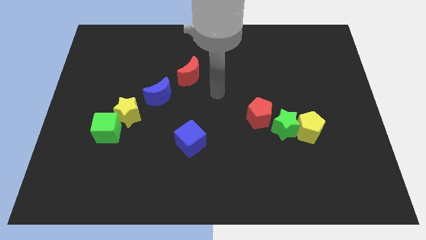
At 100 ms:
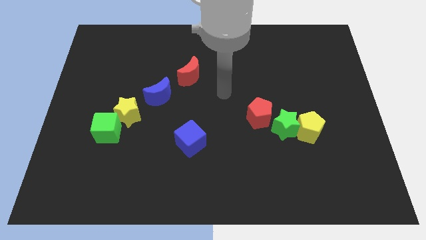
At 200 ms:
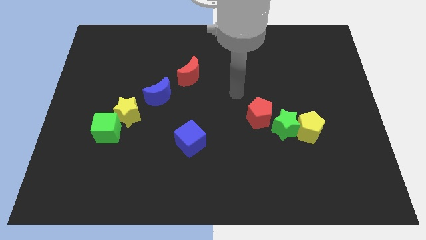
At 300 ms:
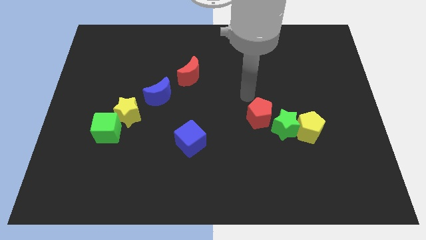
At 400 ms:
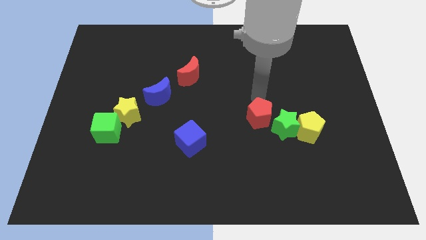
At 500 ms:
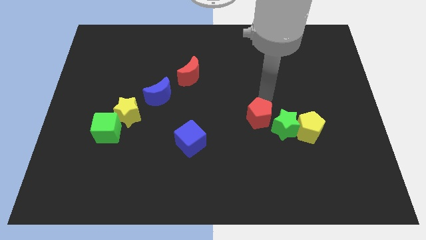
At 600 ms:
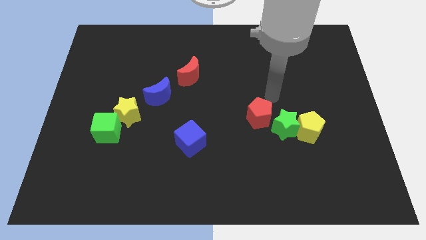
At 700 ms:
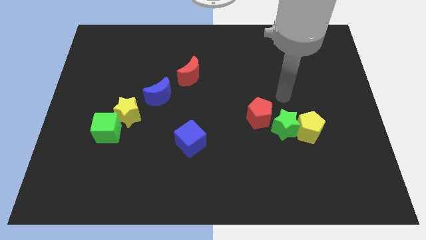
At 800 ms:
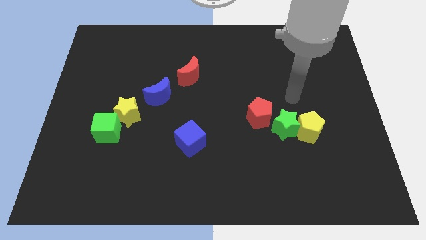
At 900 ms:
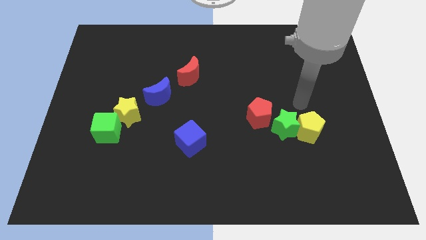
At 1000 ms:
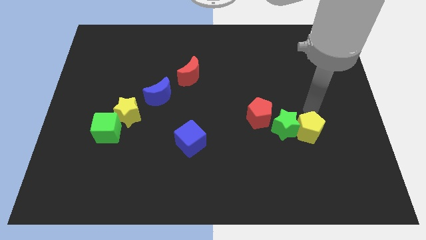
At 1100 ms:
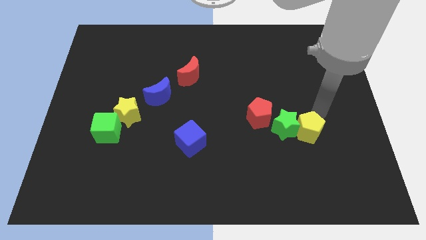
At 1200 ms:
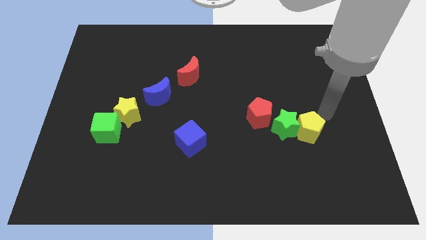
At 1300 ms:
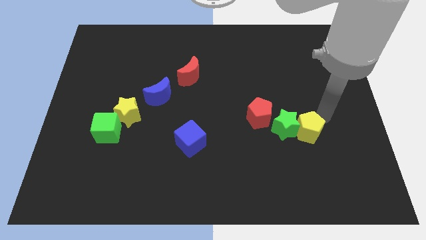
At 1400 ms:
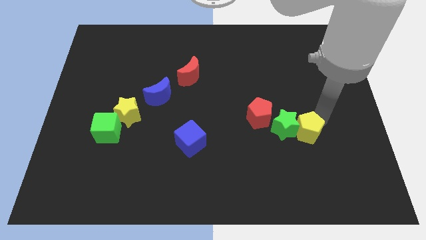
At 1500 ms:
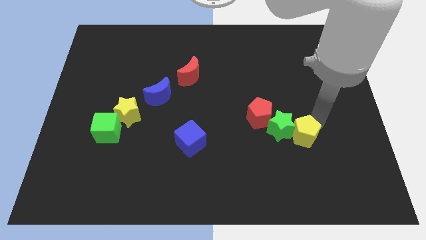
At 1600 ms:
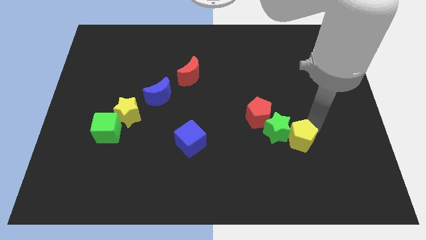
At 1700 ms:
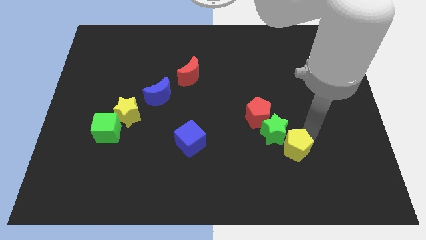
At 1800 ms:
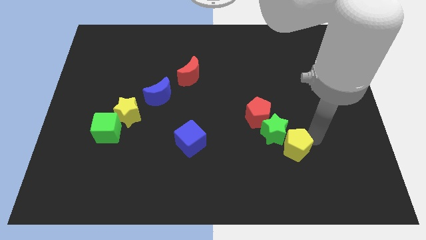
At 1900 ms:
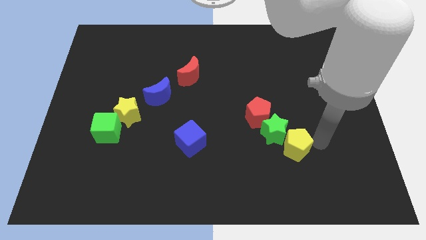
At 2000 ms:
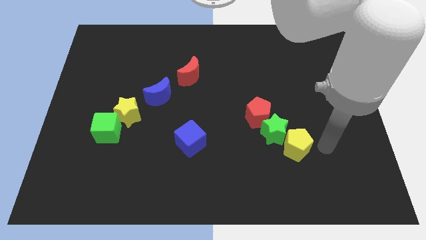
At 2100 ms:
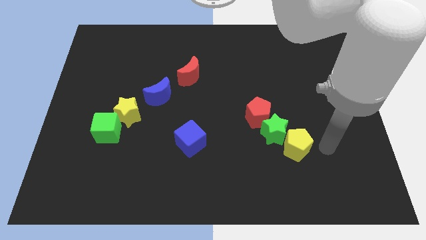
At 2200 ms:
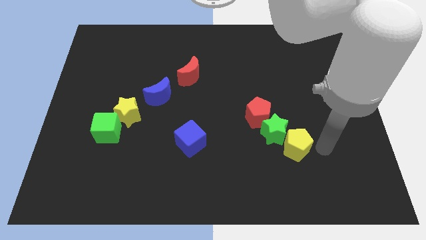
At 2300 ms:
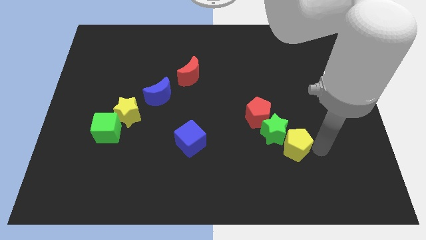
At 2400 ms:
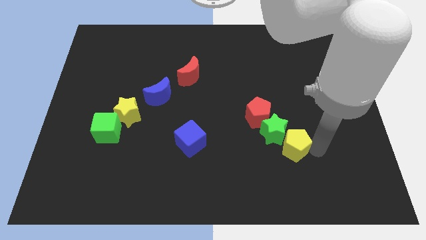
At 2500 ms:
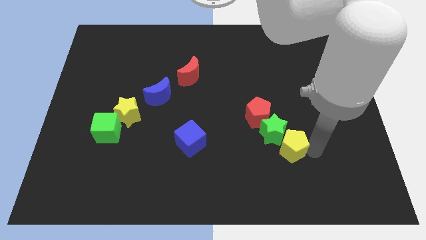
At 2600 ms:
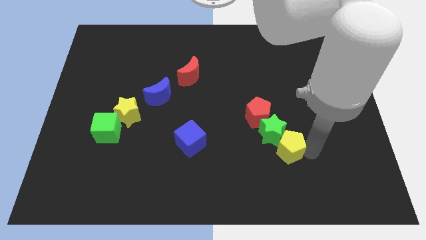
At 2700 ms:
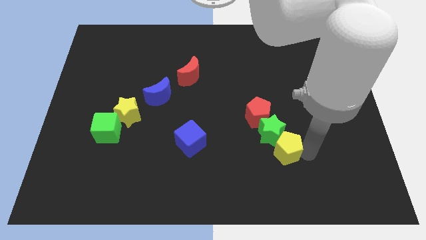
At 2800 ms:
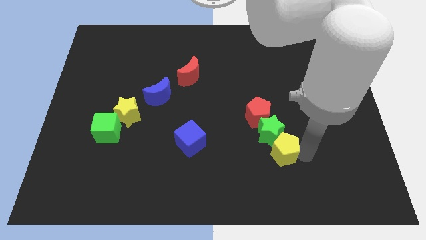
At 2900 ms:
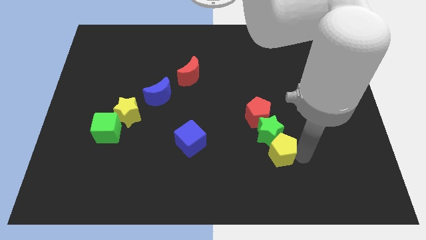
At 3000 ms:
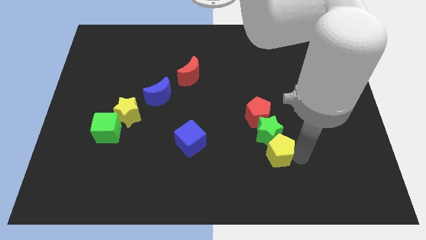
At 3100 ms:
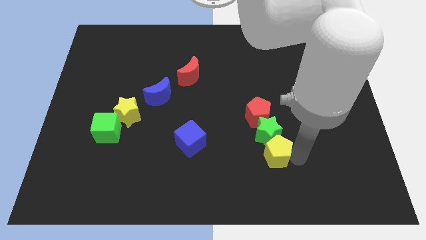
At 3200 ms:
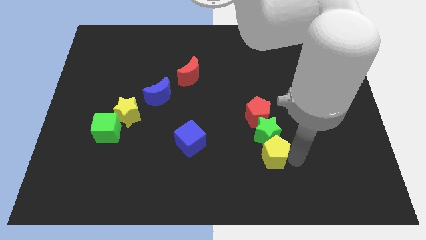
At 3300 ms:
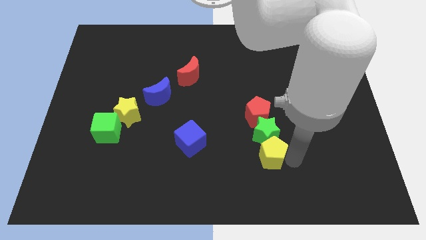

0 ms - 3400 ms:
slide the yellow pentagon a little bit to the left

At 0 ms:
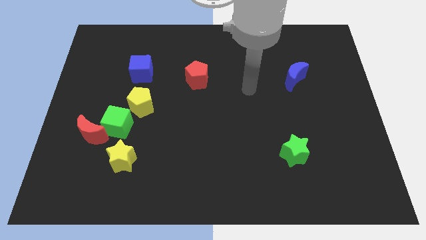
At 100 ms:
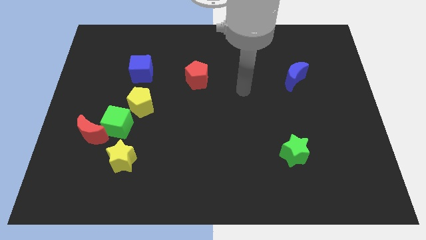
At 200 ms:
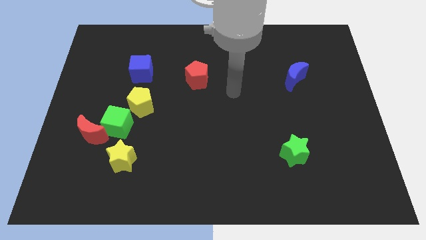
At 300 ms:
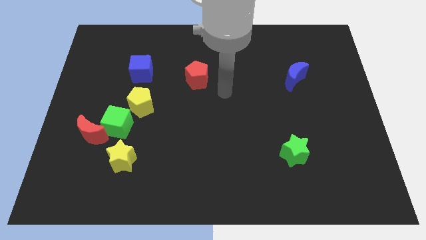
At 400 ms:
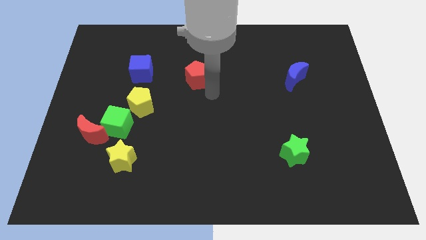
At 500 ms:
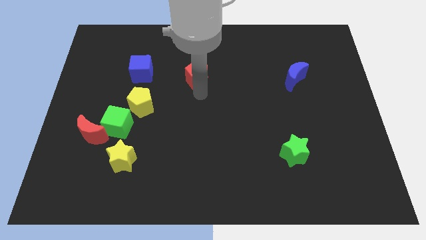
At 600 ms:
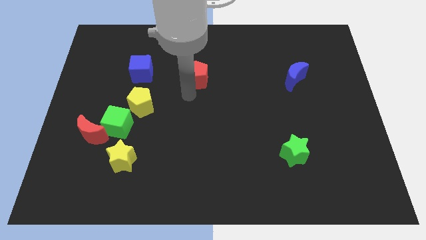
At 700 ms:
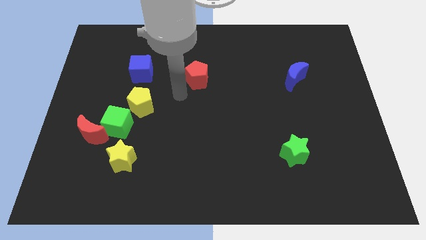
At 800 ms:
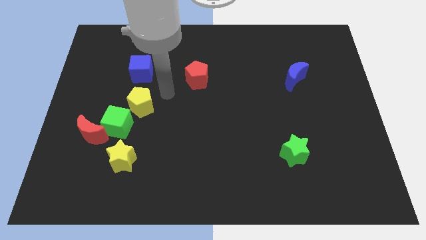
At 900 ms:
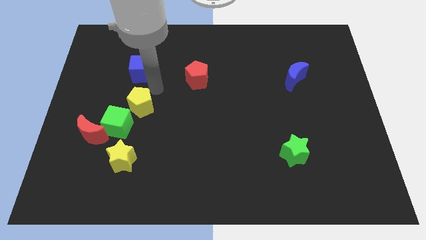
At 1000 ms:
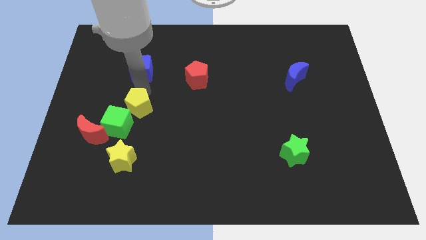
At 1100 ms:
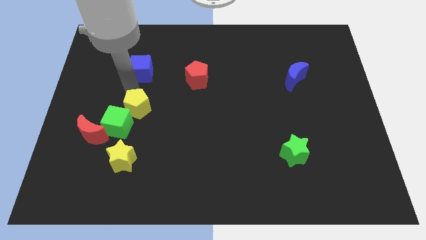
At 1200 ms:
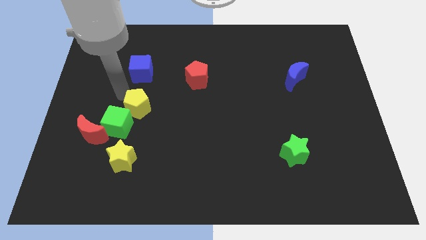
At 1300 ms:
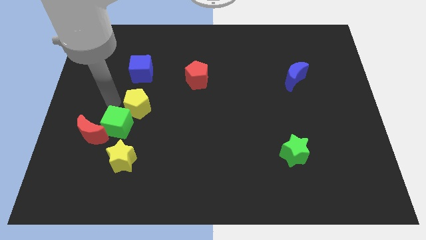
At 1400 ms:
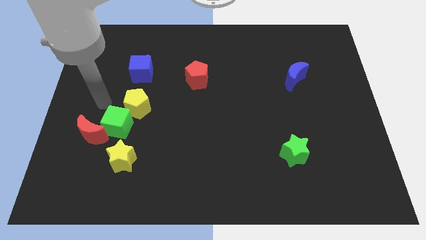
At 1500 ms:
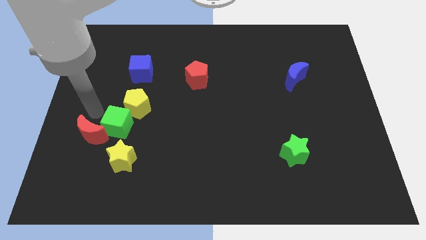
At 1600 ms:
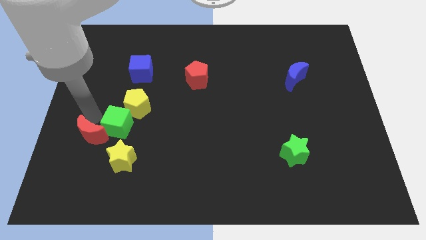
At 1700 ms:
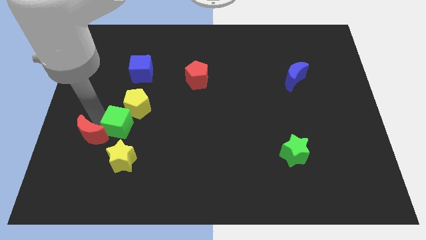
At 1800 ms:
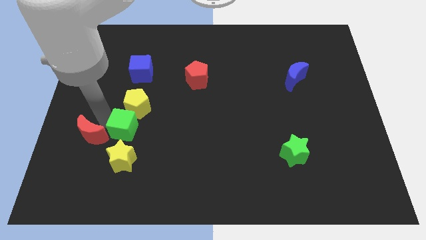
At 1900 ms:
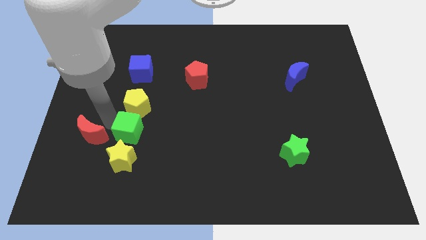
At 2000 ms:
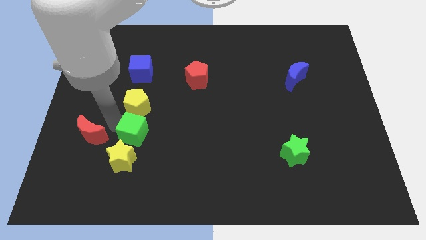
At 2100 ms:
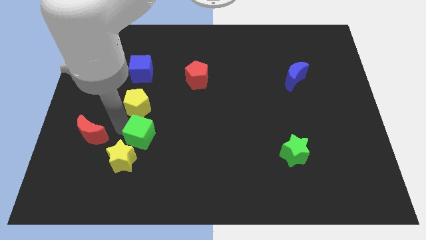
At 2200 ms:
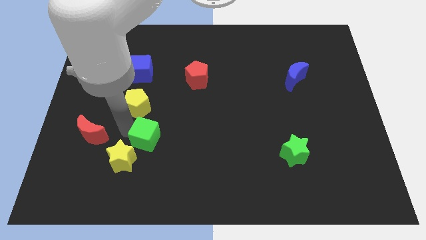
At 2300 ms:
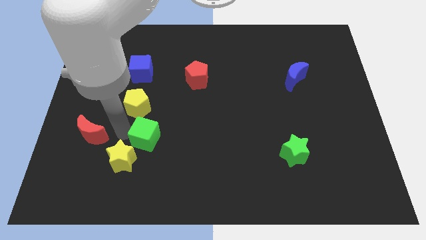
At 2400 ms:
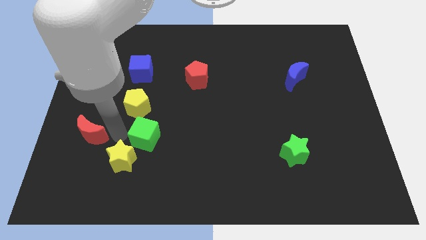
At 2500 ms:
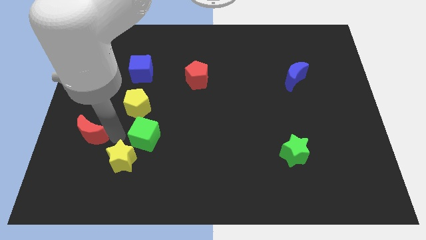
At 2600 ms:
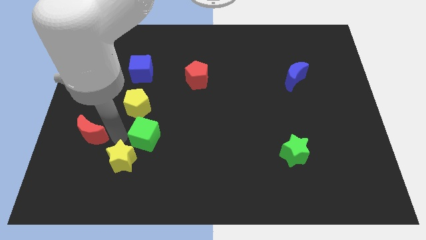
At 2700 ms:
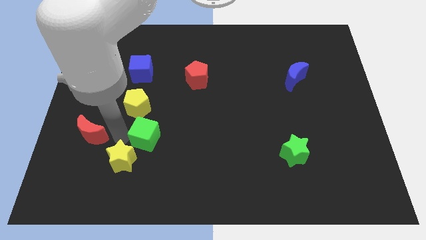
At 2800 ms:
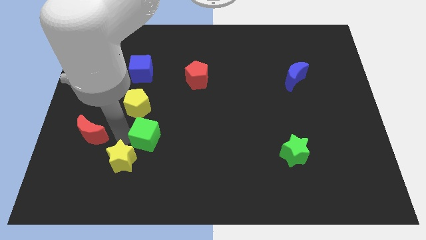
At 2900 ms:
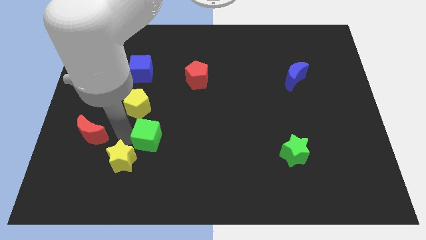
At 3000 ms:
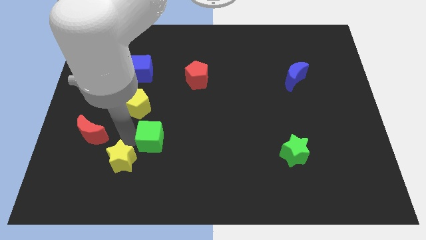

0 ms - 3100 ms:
move the green cube to the right slightly

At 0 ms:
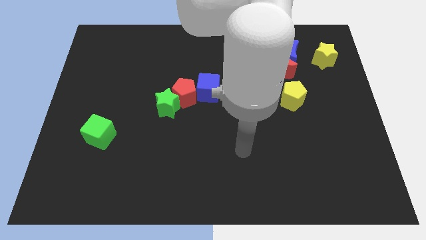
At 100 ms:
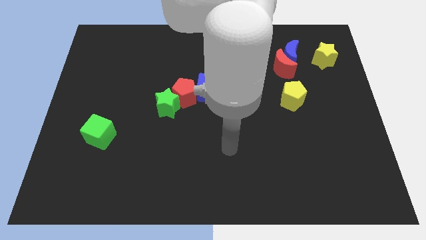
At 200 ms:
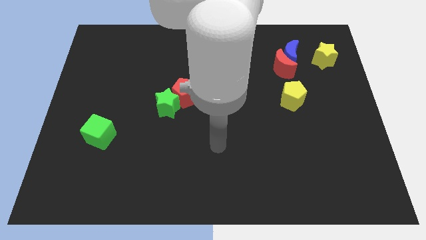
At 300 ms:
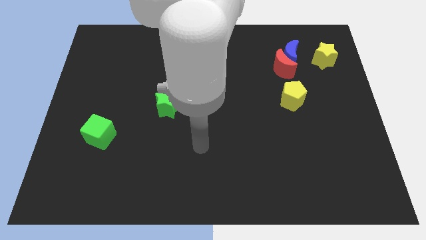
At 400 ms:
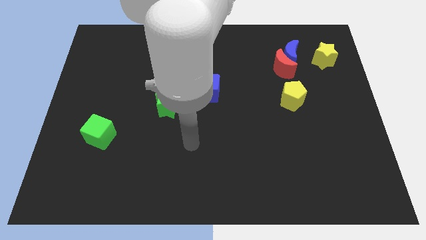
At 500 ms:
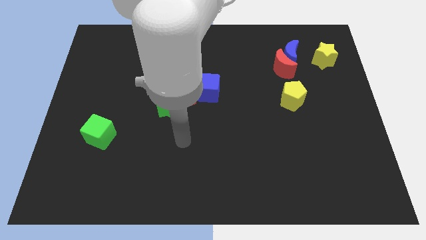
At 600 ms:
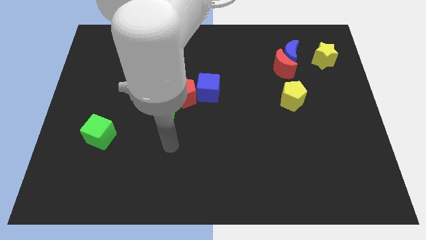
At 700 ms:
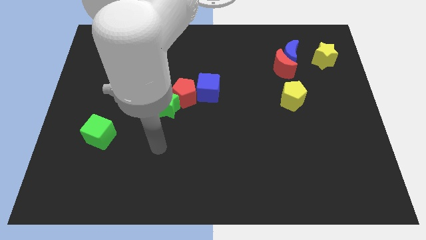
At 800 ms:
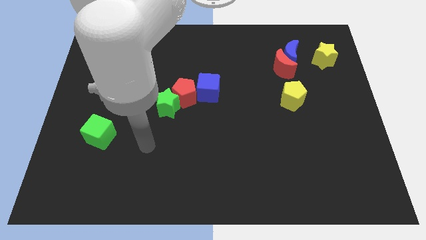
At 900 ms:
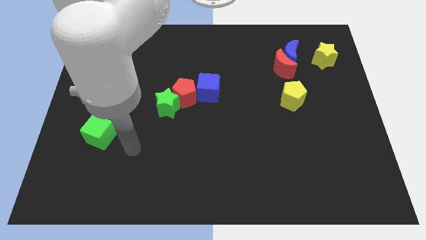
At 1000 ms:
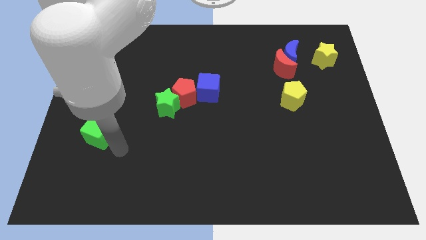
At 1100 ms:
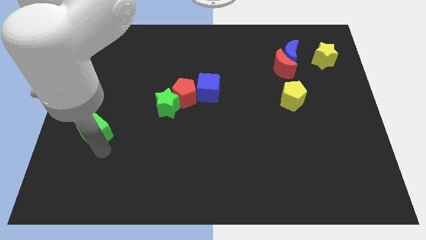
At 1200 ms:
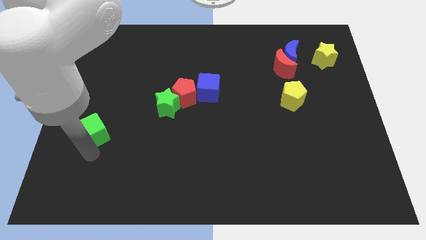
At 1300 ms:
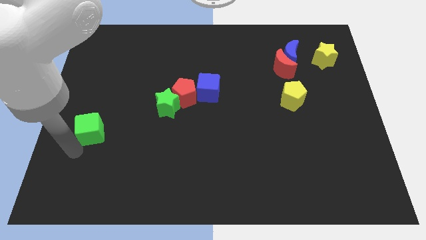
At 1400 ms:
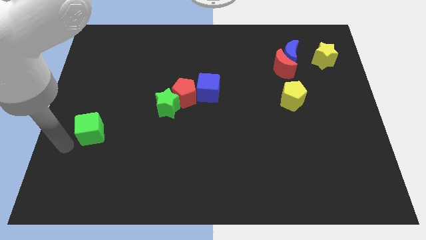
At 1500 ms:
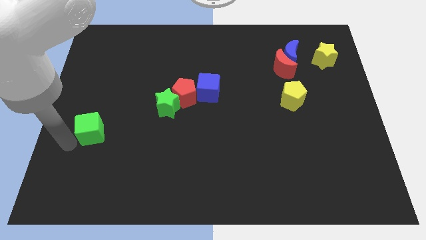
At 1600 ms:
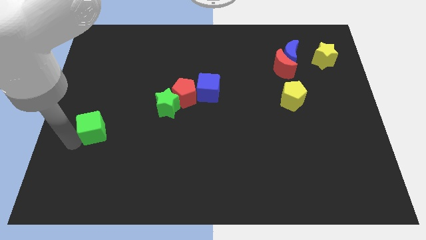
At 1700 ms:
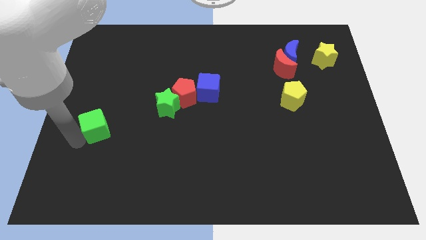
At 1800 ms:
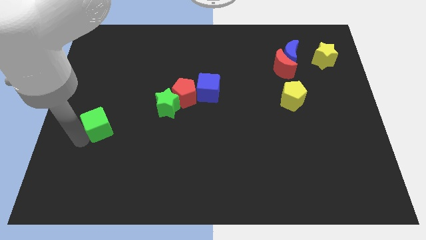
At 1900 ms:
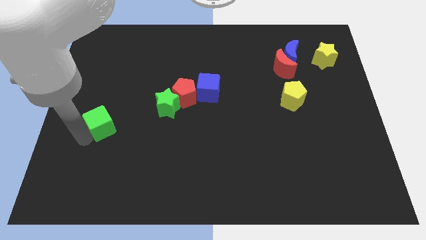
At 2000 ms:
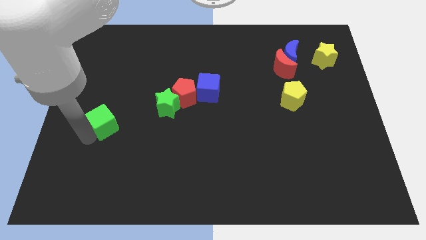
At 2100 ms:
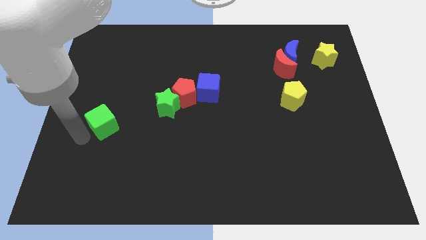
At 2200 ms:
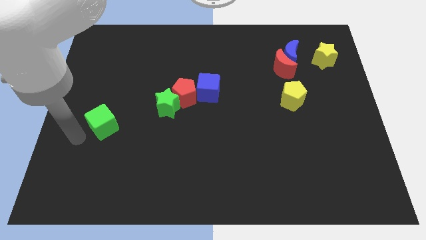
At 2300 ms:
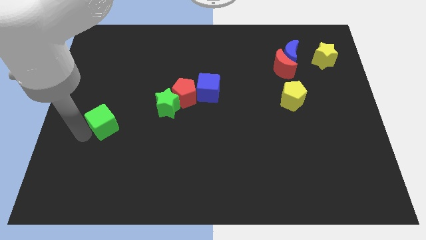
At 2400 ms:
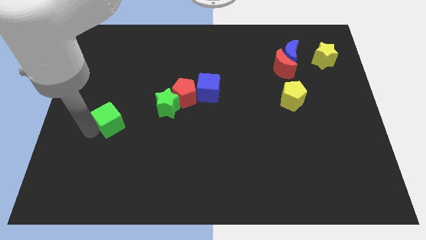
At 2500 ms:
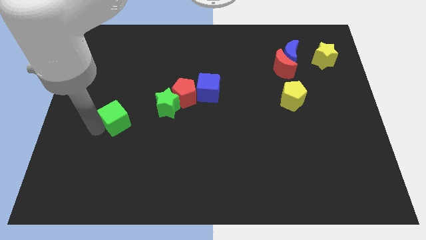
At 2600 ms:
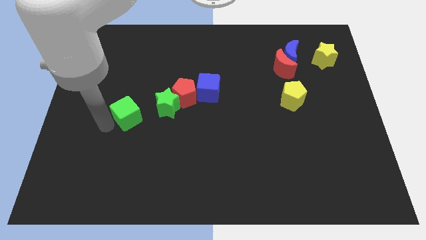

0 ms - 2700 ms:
slide the green cube slightly up and right diagonally
